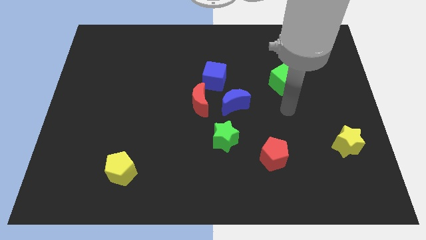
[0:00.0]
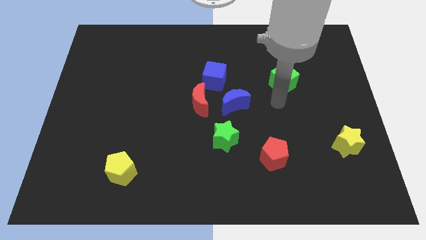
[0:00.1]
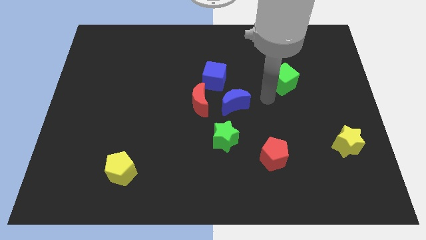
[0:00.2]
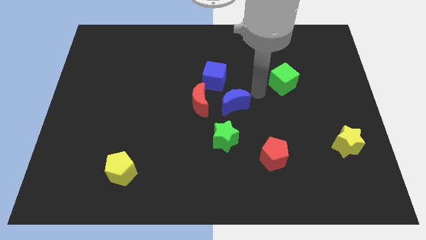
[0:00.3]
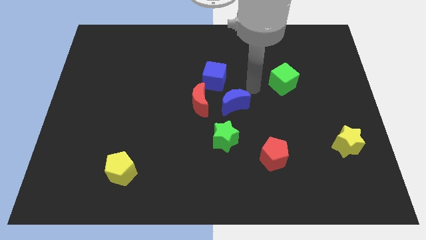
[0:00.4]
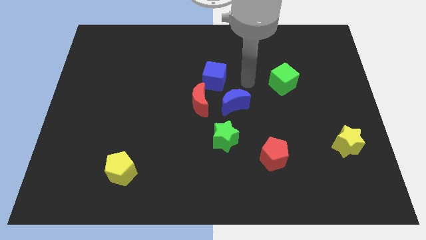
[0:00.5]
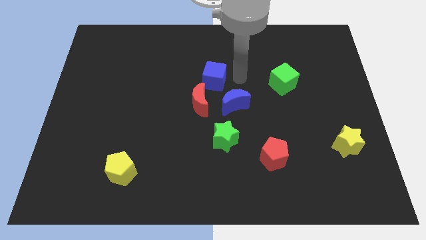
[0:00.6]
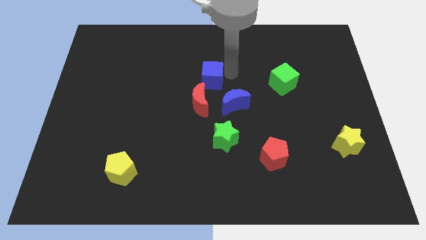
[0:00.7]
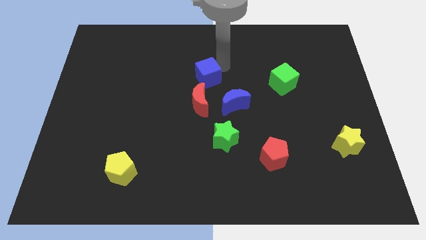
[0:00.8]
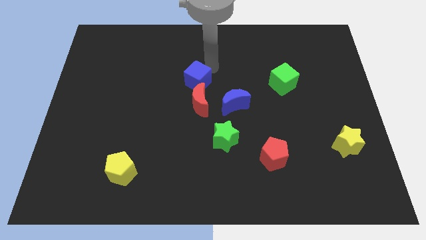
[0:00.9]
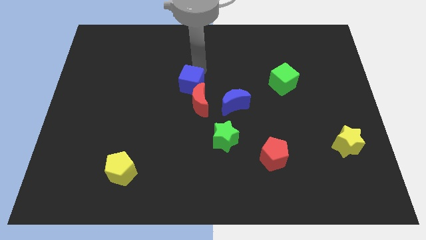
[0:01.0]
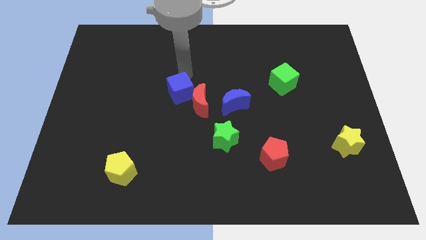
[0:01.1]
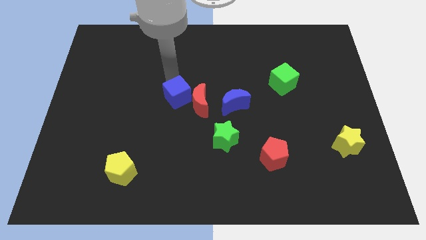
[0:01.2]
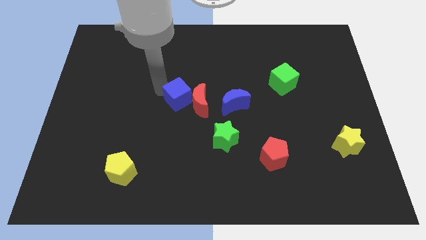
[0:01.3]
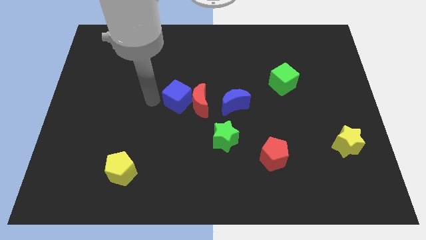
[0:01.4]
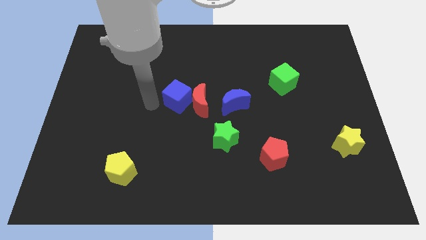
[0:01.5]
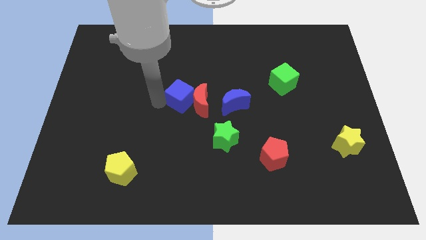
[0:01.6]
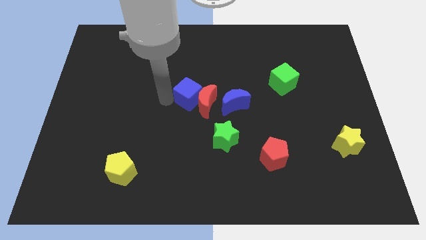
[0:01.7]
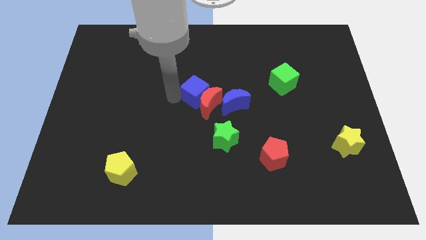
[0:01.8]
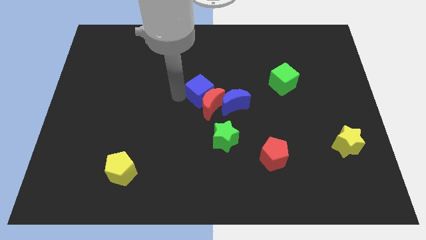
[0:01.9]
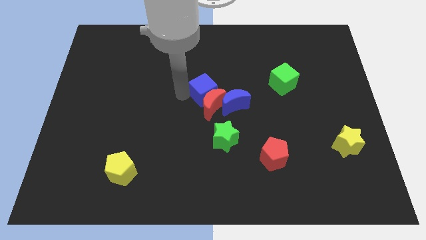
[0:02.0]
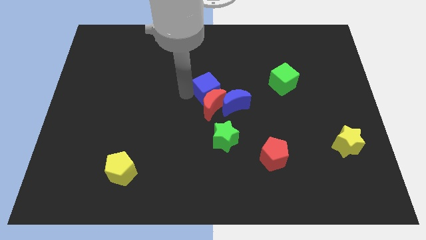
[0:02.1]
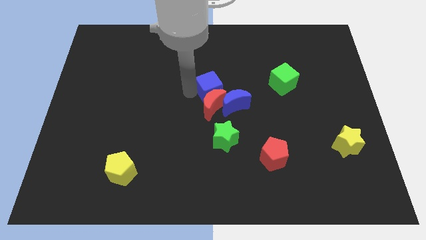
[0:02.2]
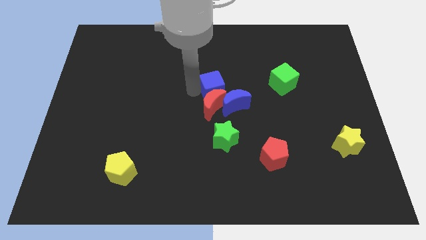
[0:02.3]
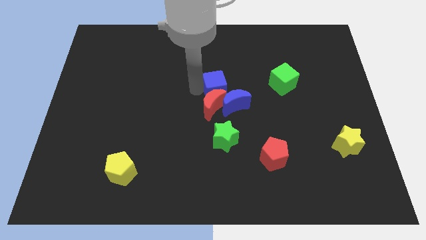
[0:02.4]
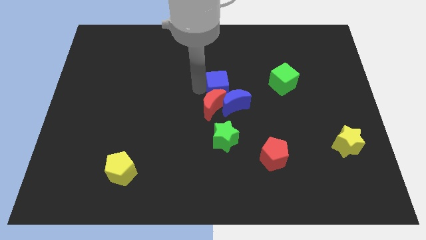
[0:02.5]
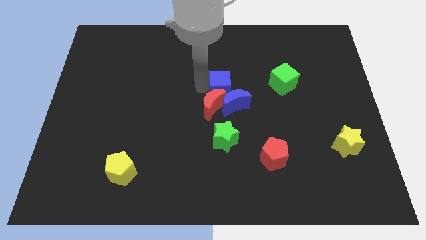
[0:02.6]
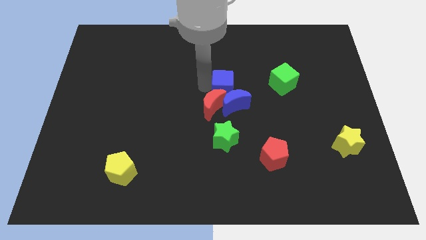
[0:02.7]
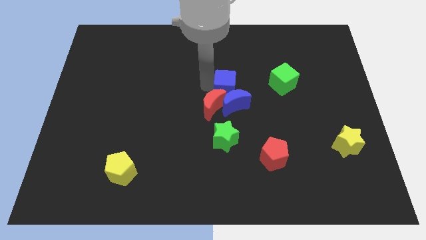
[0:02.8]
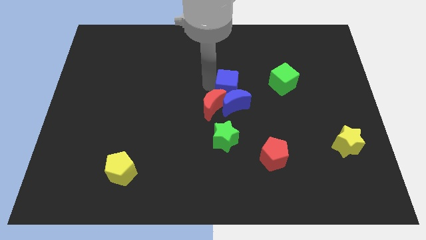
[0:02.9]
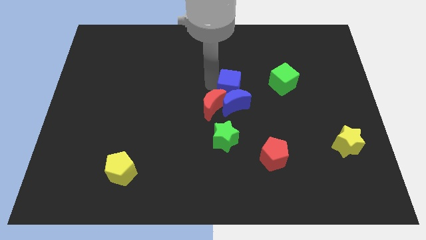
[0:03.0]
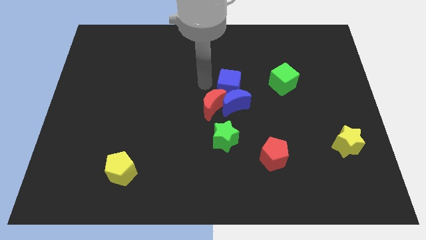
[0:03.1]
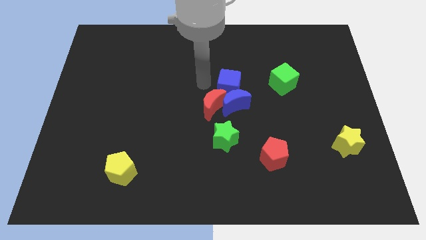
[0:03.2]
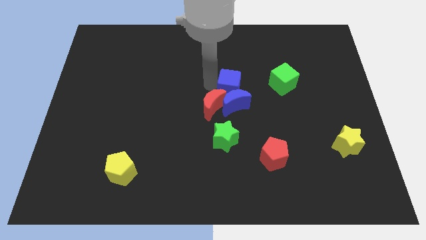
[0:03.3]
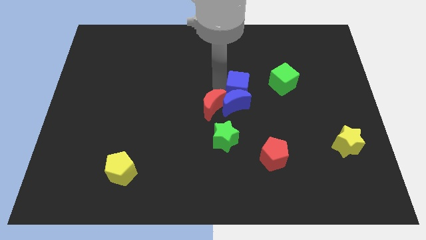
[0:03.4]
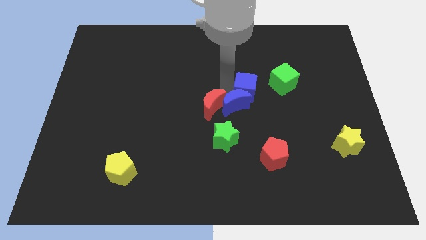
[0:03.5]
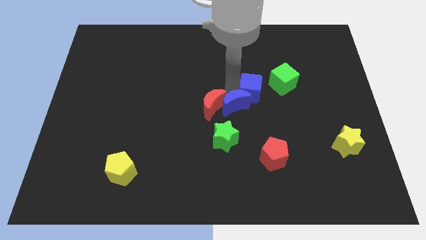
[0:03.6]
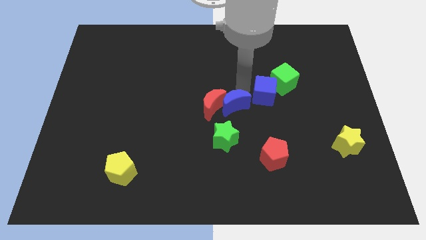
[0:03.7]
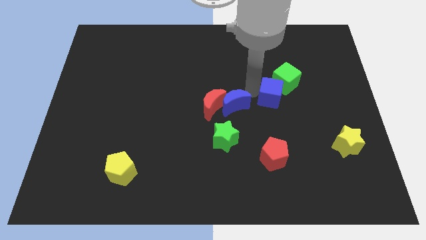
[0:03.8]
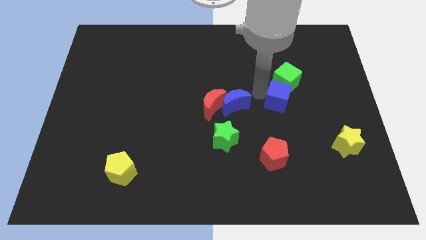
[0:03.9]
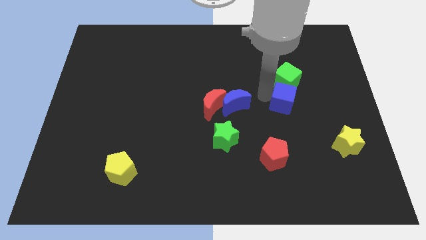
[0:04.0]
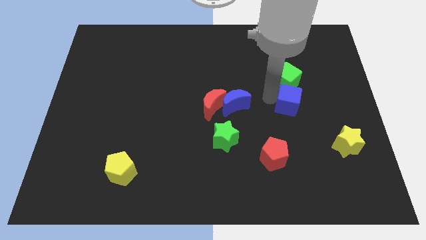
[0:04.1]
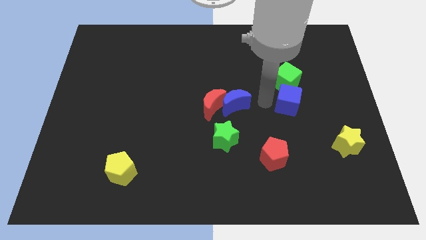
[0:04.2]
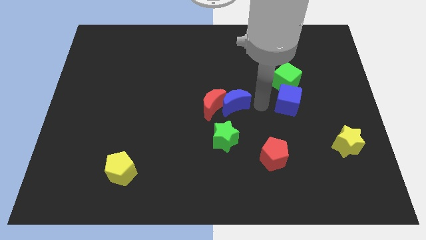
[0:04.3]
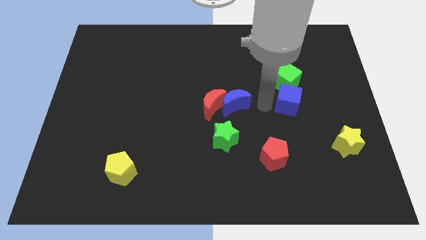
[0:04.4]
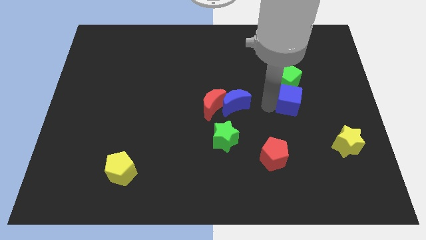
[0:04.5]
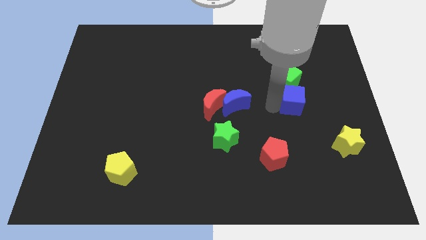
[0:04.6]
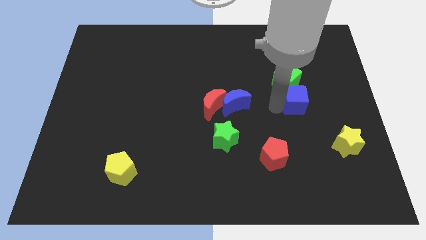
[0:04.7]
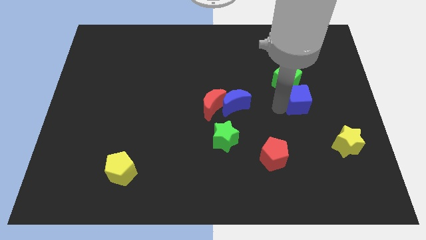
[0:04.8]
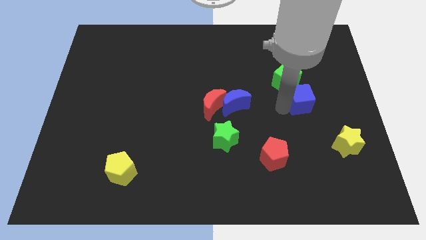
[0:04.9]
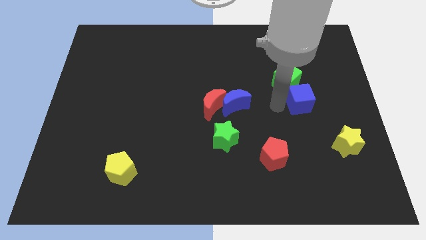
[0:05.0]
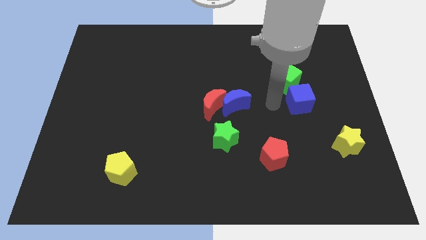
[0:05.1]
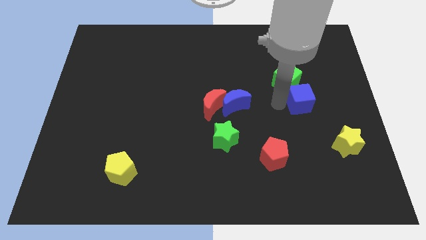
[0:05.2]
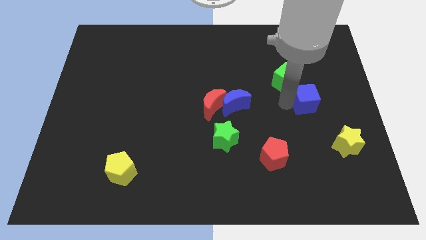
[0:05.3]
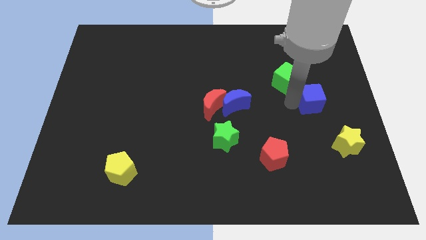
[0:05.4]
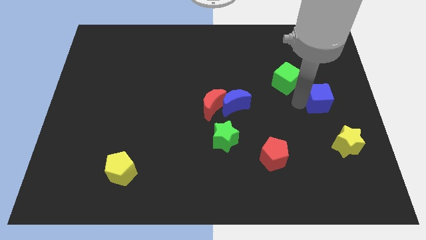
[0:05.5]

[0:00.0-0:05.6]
move the blue cube to the right side

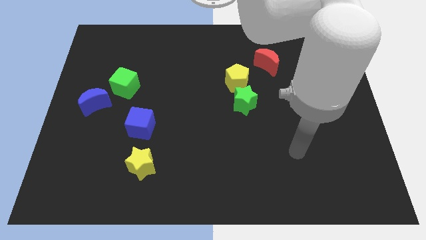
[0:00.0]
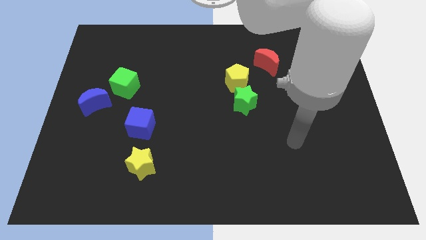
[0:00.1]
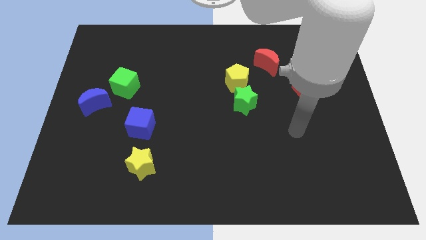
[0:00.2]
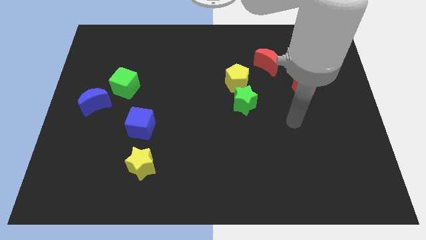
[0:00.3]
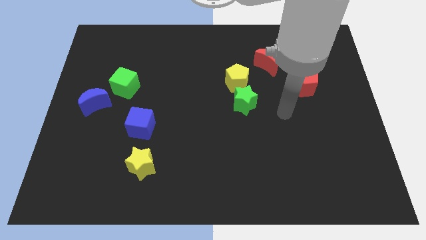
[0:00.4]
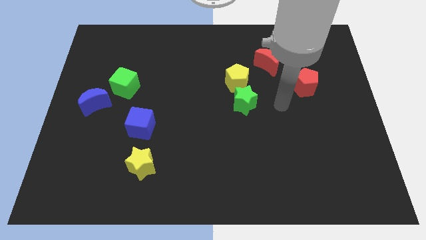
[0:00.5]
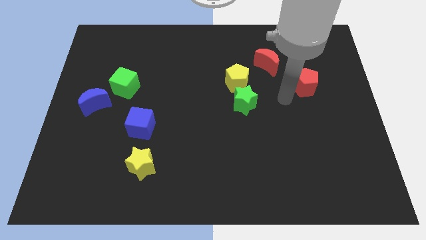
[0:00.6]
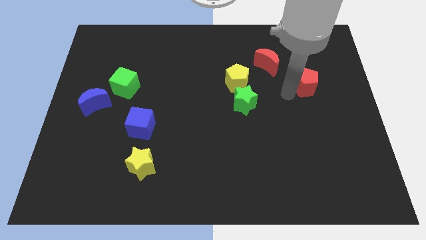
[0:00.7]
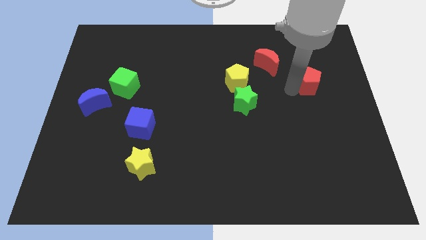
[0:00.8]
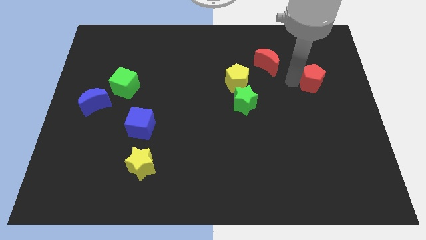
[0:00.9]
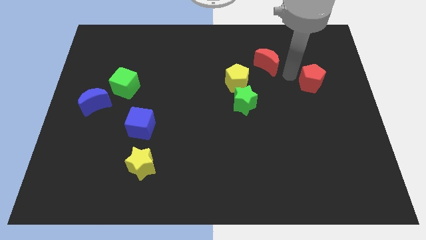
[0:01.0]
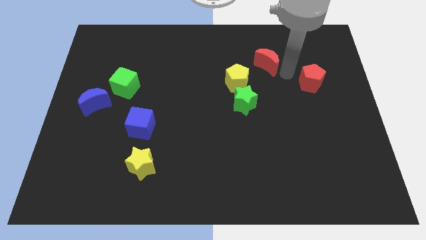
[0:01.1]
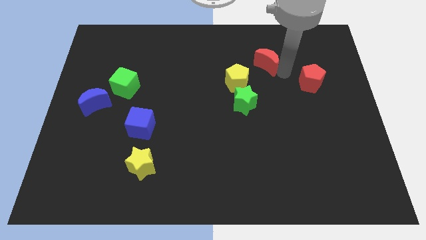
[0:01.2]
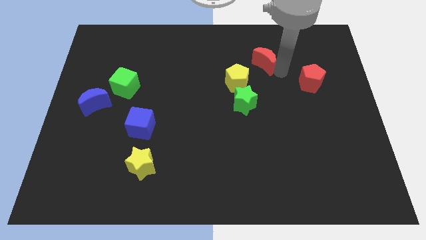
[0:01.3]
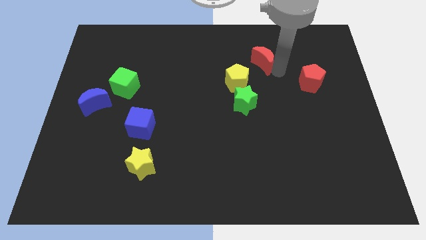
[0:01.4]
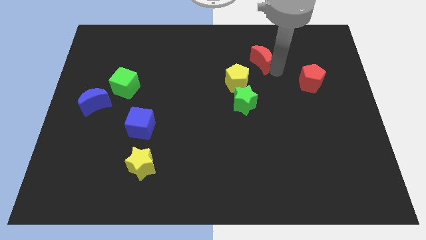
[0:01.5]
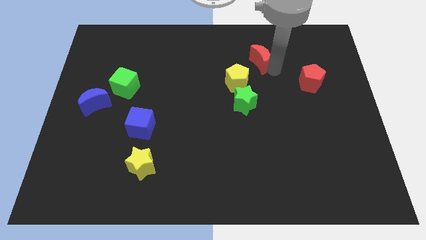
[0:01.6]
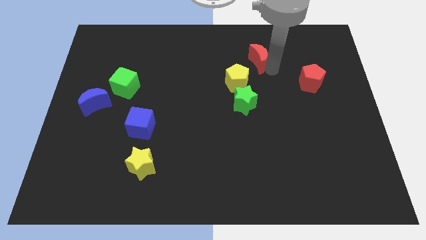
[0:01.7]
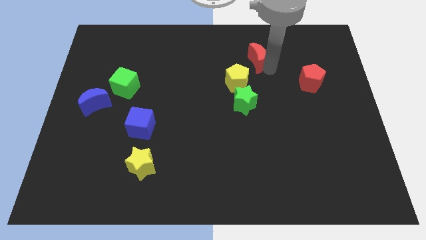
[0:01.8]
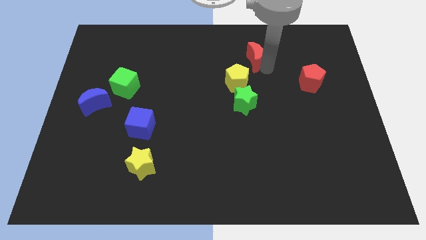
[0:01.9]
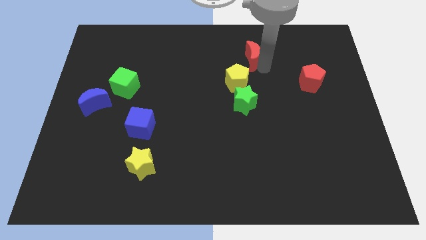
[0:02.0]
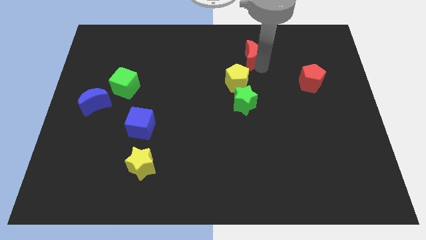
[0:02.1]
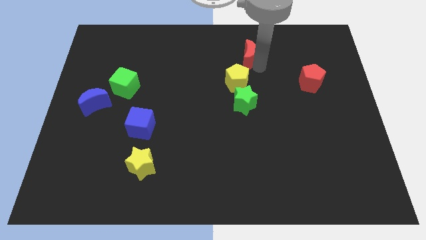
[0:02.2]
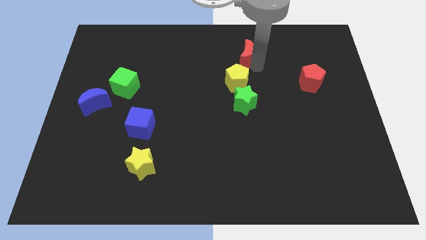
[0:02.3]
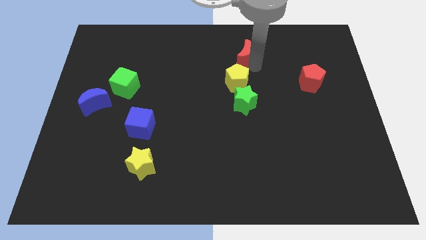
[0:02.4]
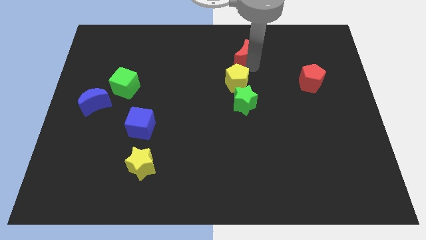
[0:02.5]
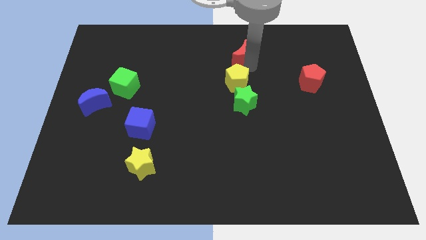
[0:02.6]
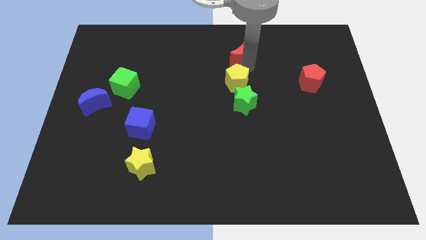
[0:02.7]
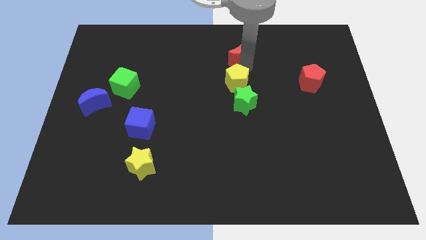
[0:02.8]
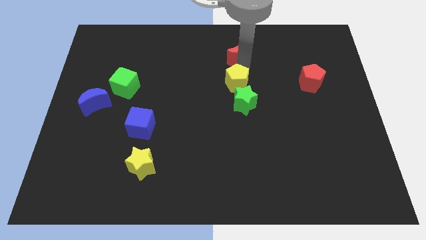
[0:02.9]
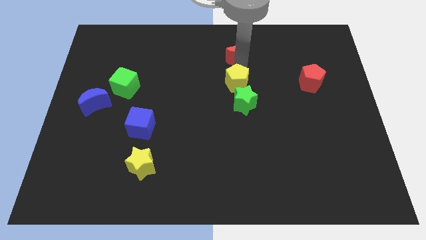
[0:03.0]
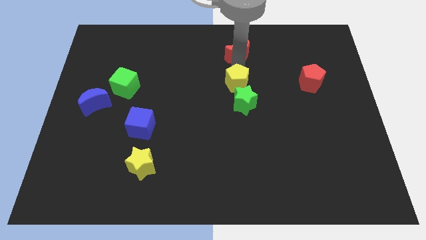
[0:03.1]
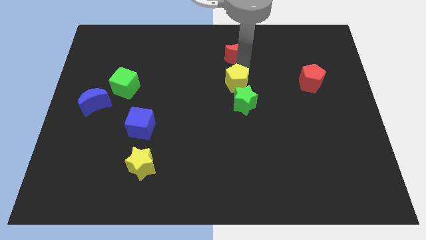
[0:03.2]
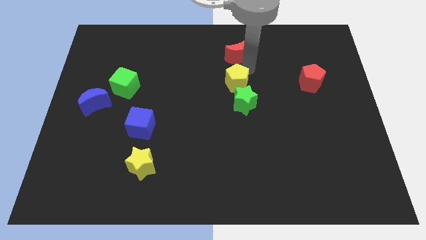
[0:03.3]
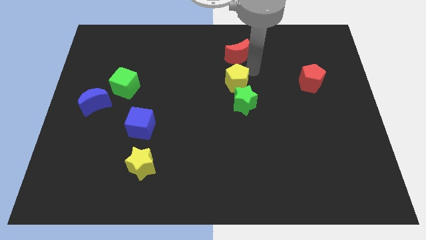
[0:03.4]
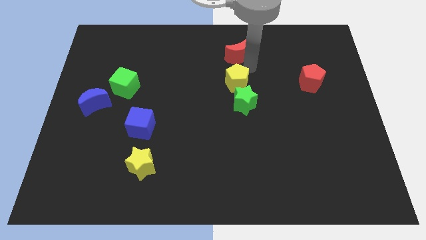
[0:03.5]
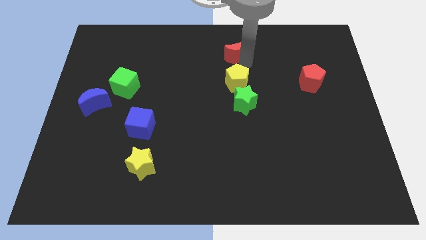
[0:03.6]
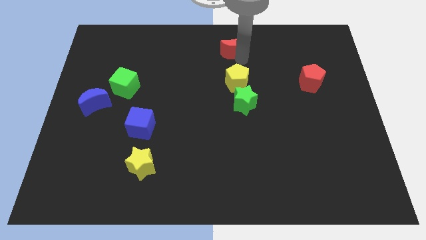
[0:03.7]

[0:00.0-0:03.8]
move the red moon to the top side
